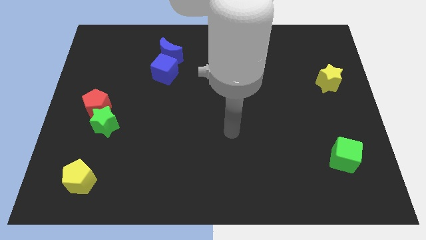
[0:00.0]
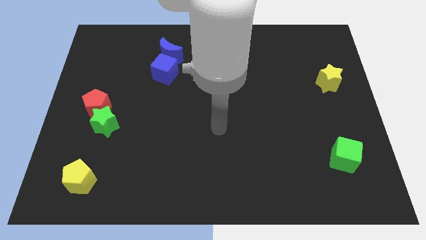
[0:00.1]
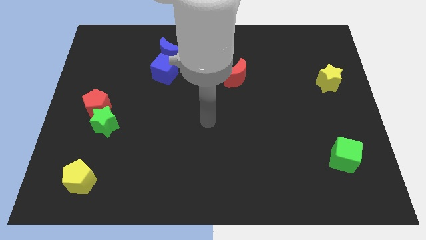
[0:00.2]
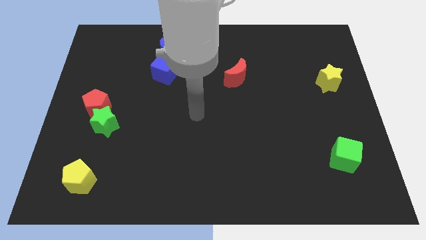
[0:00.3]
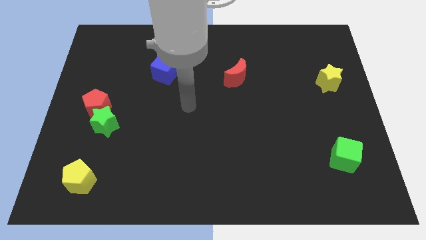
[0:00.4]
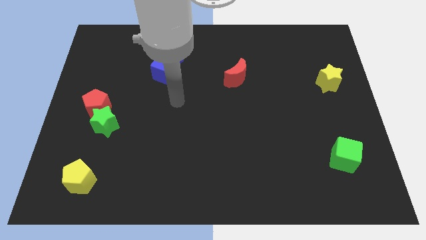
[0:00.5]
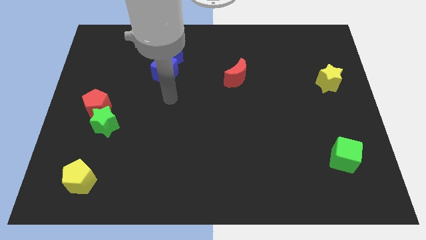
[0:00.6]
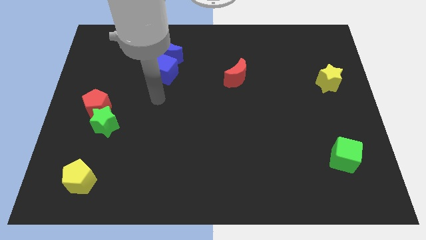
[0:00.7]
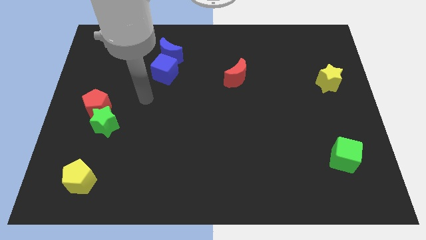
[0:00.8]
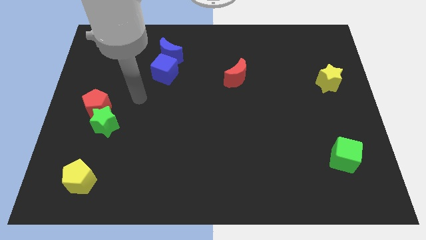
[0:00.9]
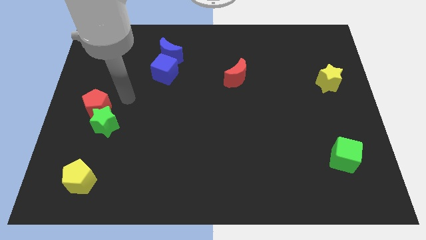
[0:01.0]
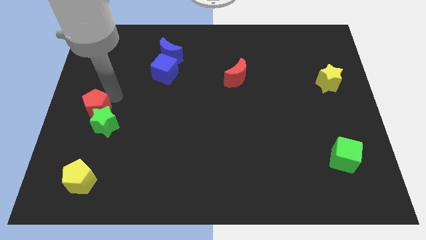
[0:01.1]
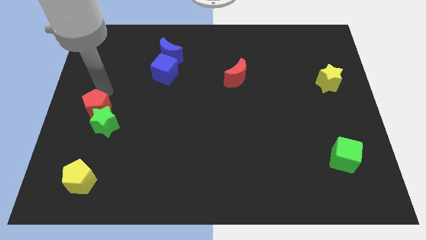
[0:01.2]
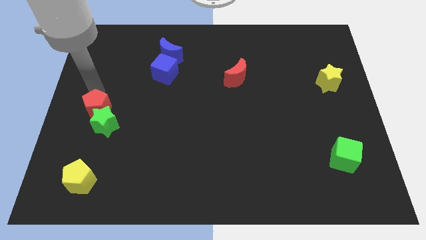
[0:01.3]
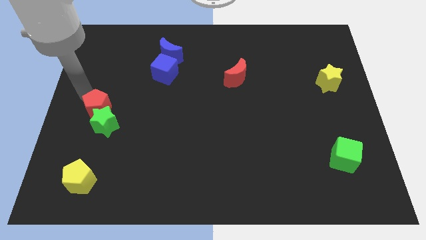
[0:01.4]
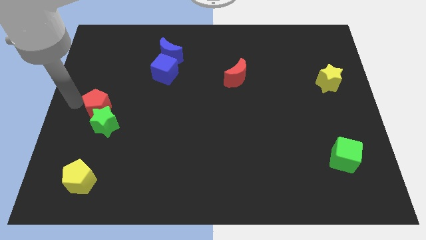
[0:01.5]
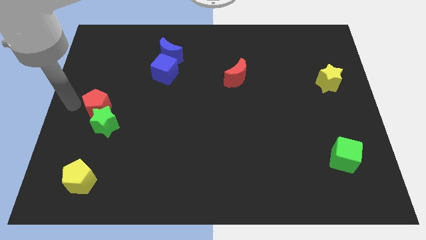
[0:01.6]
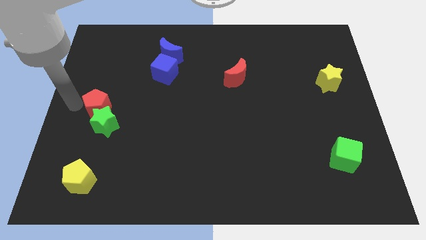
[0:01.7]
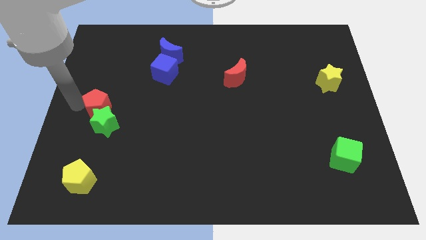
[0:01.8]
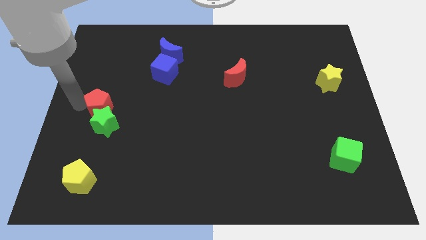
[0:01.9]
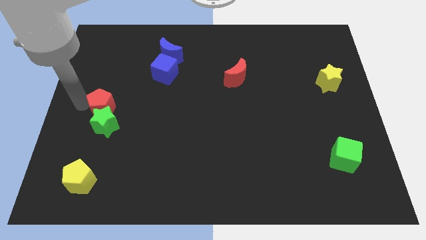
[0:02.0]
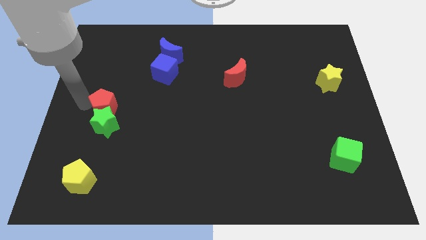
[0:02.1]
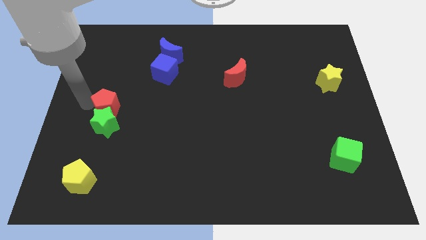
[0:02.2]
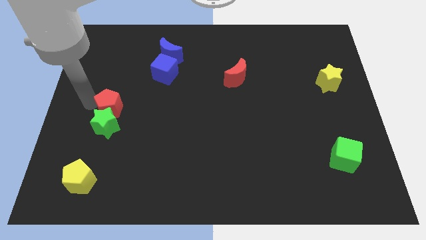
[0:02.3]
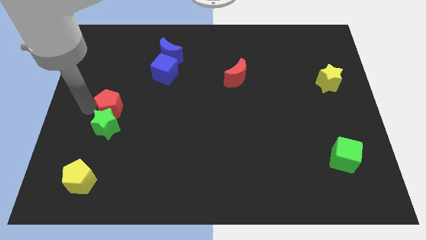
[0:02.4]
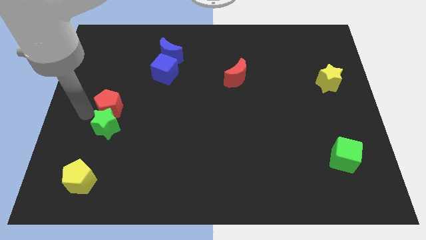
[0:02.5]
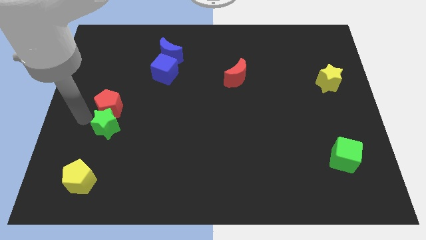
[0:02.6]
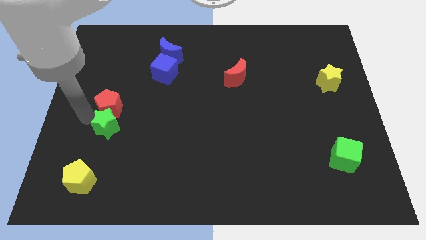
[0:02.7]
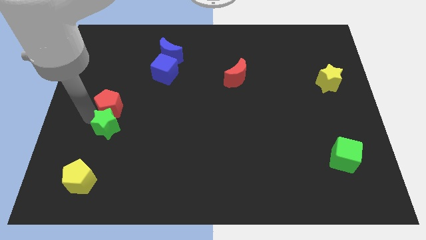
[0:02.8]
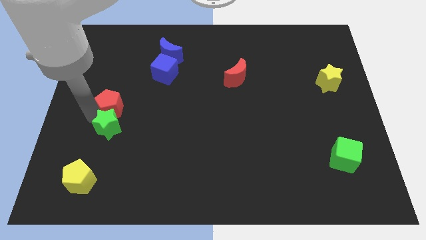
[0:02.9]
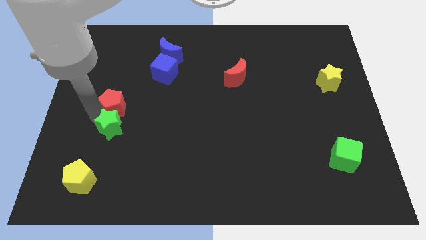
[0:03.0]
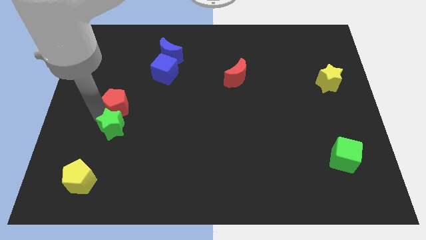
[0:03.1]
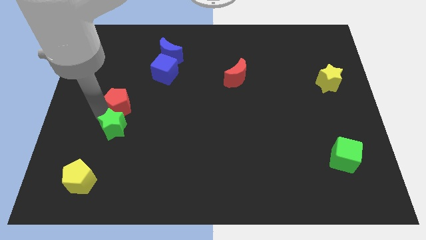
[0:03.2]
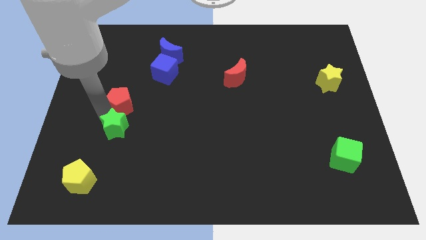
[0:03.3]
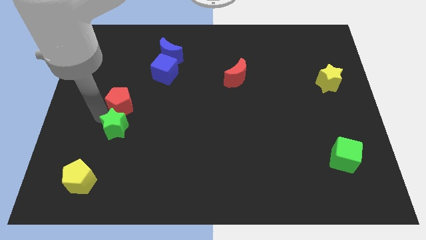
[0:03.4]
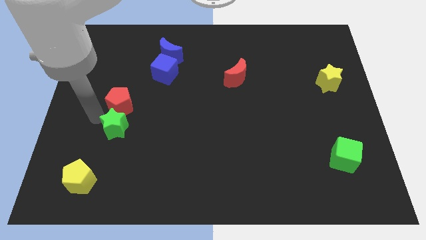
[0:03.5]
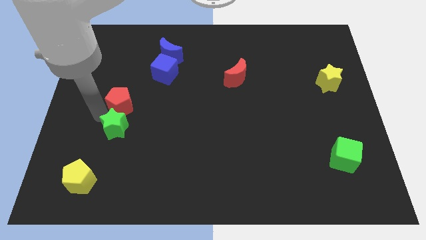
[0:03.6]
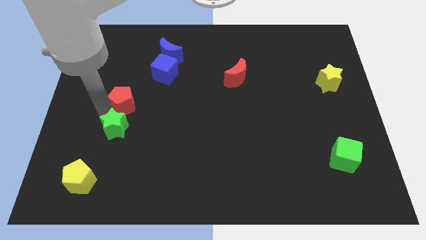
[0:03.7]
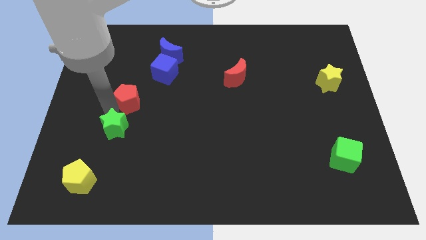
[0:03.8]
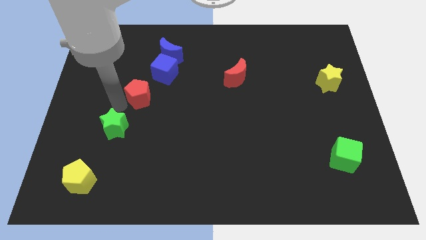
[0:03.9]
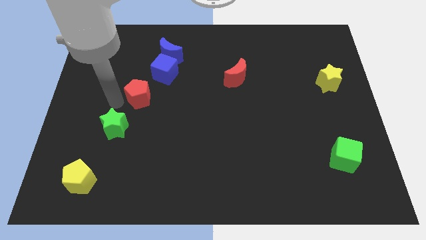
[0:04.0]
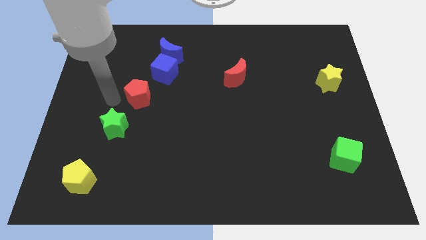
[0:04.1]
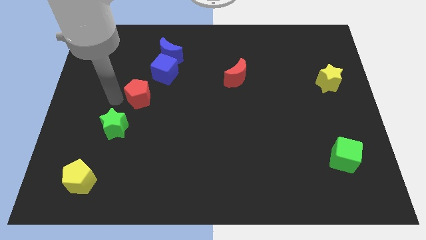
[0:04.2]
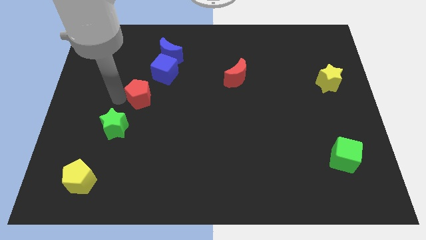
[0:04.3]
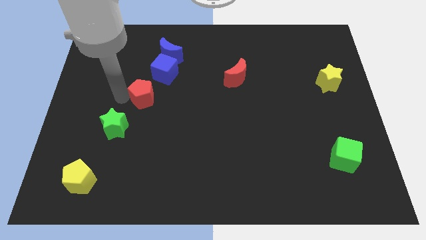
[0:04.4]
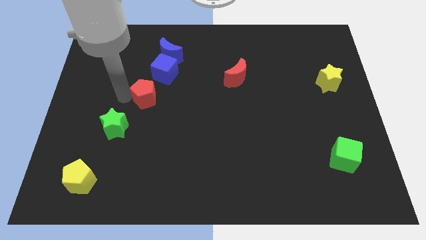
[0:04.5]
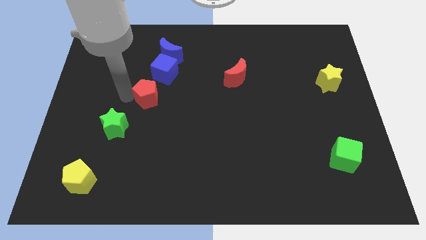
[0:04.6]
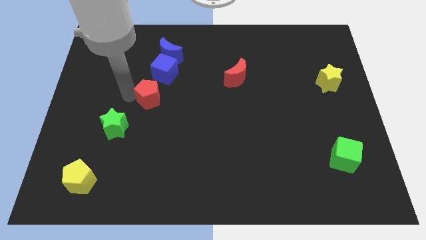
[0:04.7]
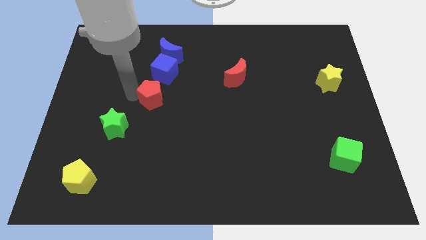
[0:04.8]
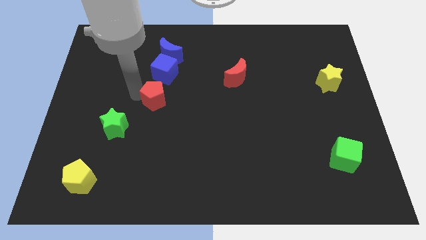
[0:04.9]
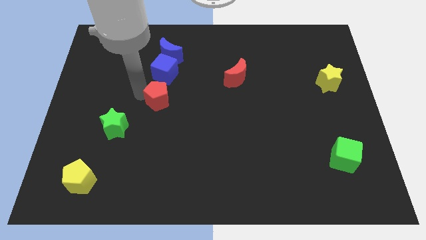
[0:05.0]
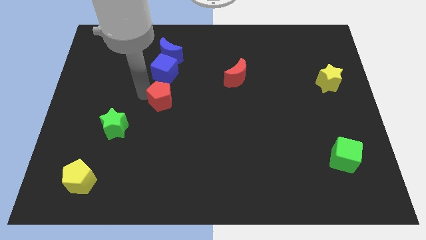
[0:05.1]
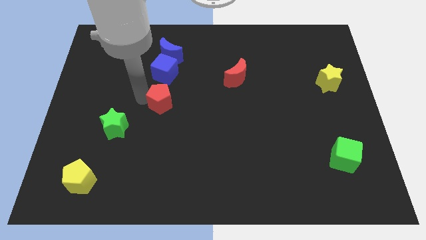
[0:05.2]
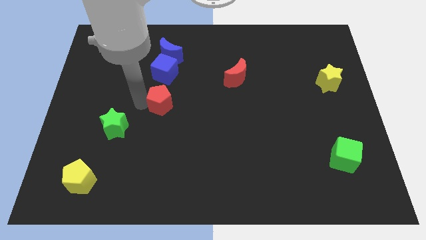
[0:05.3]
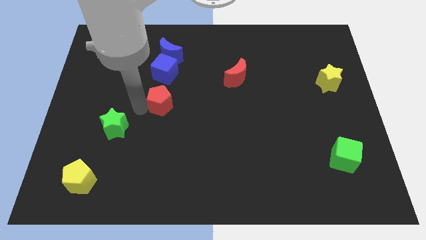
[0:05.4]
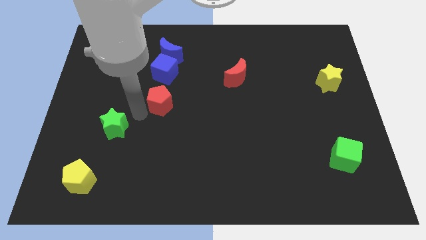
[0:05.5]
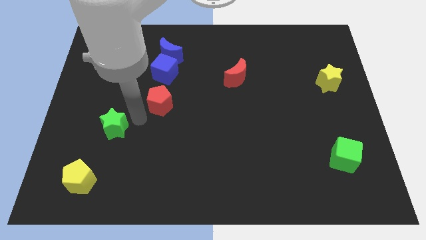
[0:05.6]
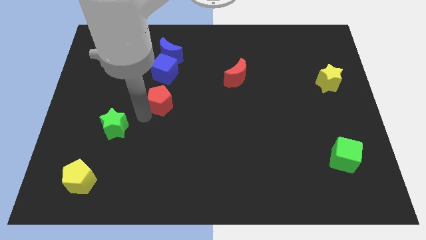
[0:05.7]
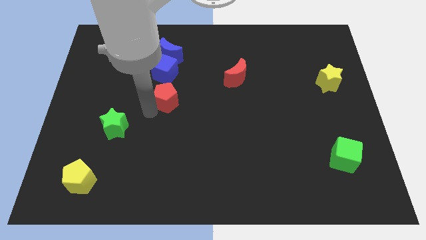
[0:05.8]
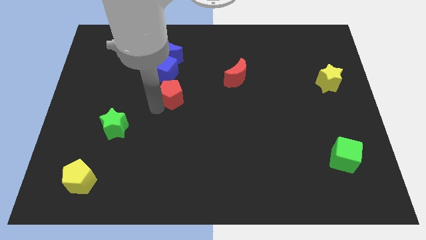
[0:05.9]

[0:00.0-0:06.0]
slide the red pentagon to the bottom right side of the blue cube

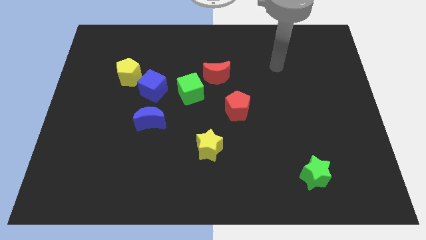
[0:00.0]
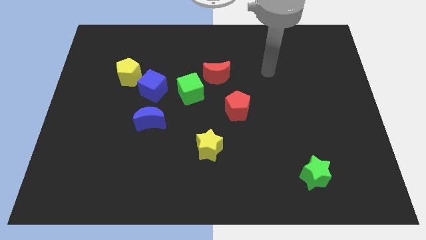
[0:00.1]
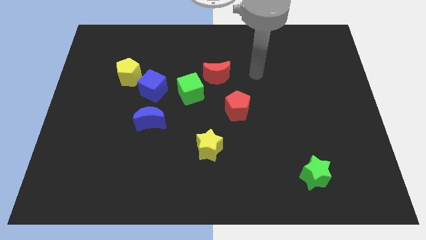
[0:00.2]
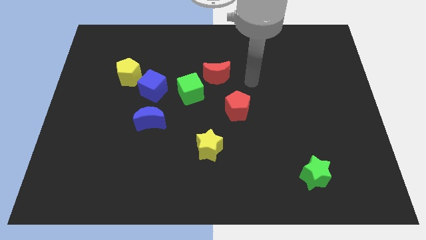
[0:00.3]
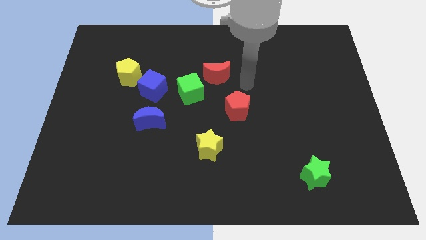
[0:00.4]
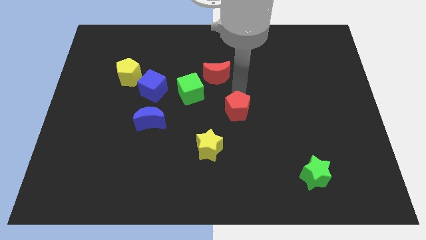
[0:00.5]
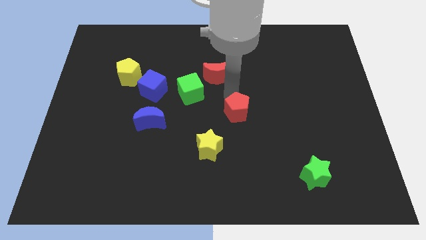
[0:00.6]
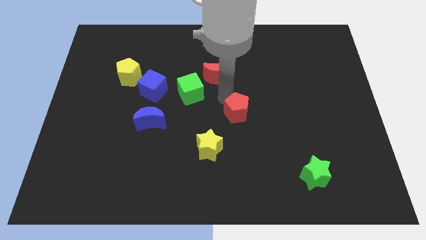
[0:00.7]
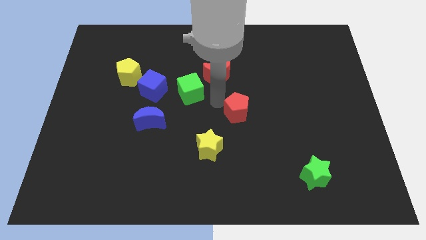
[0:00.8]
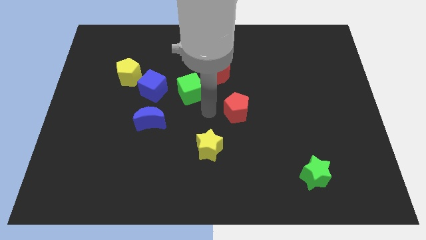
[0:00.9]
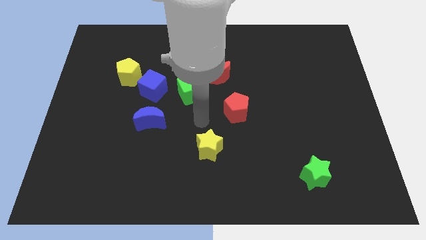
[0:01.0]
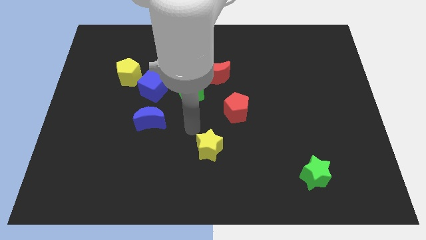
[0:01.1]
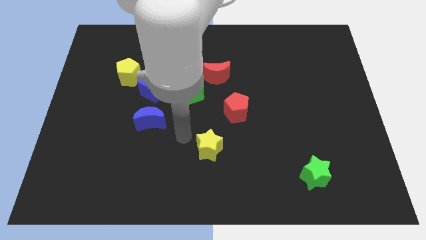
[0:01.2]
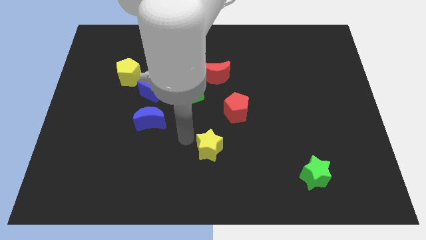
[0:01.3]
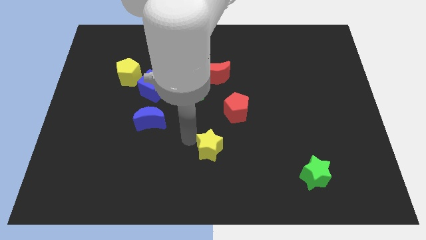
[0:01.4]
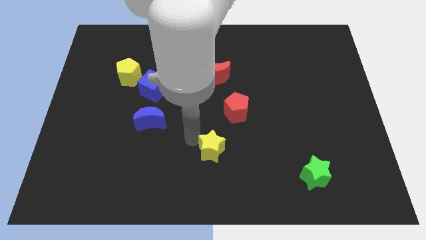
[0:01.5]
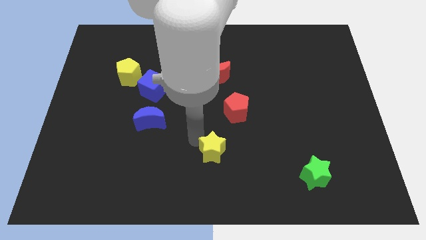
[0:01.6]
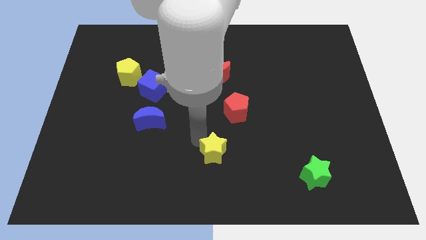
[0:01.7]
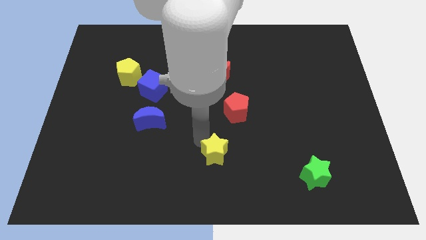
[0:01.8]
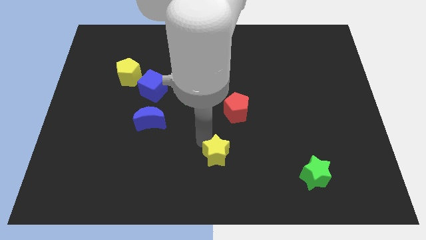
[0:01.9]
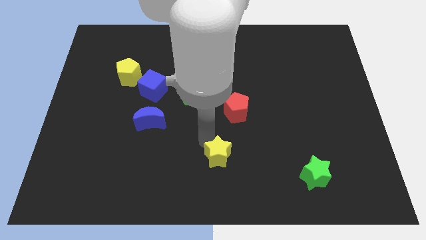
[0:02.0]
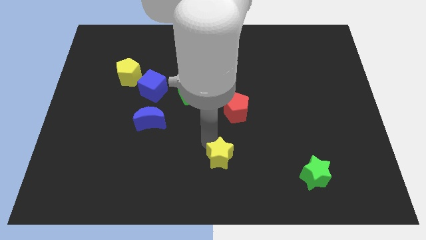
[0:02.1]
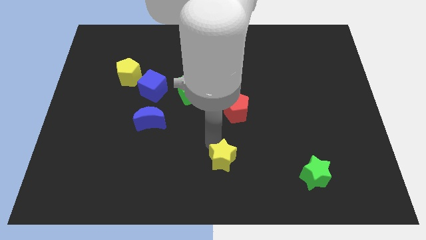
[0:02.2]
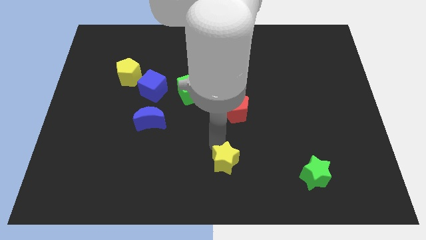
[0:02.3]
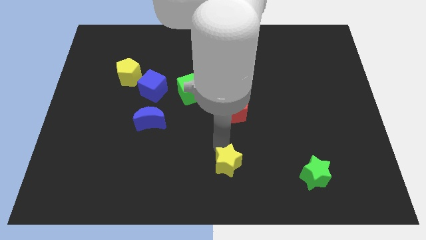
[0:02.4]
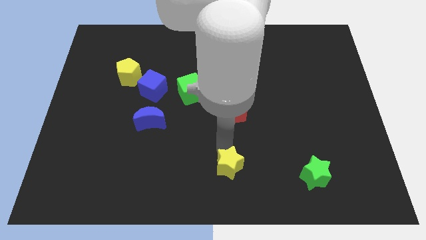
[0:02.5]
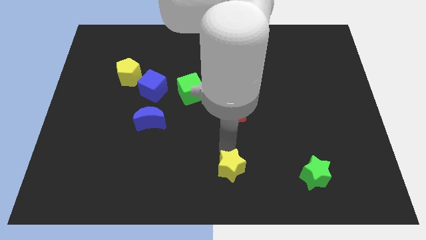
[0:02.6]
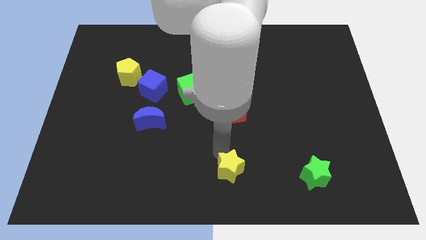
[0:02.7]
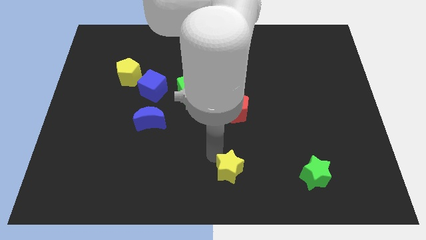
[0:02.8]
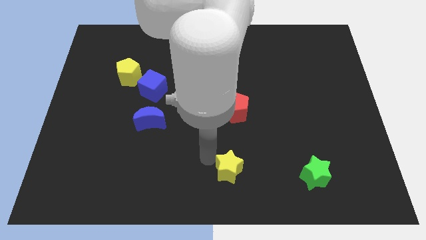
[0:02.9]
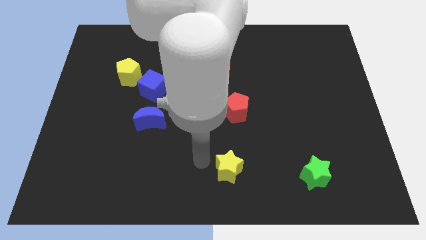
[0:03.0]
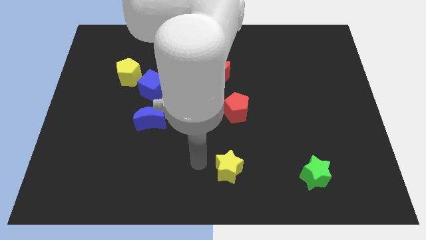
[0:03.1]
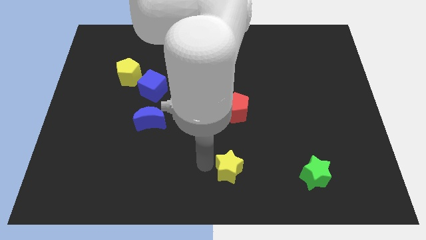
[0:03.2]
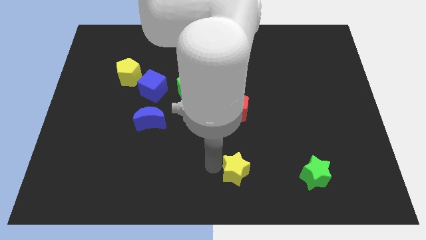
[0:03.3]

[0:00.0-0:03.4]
slide the yellow star just left of the green star
